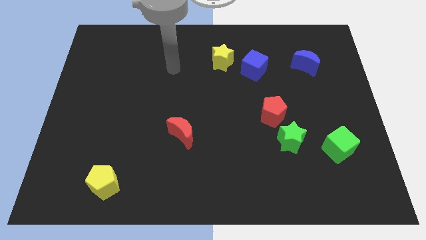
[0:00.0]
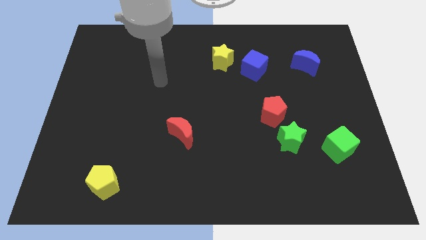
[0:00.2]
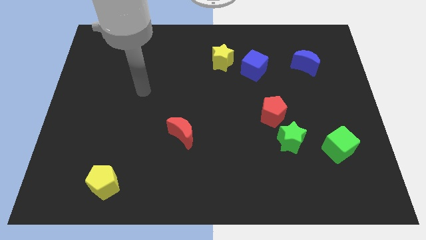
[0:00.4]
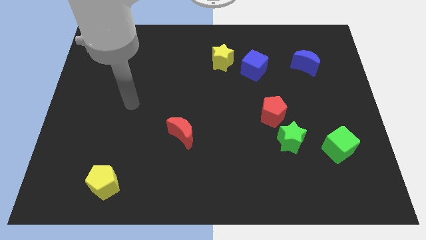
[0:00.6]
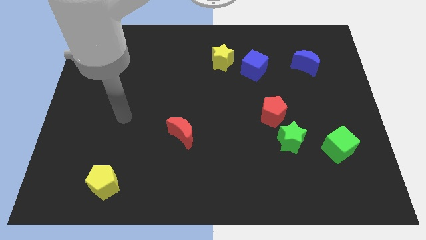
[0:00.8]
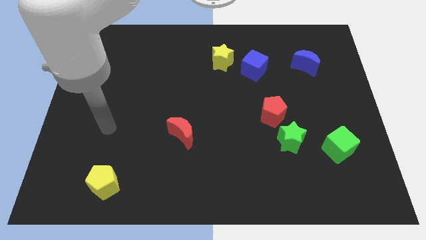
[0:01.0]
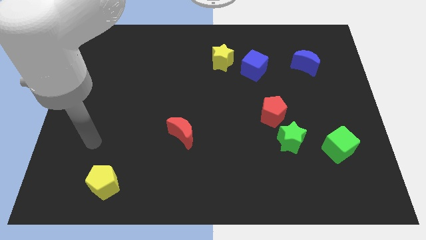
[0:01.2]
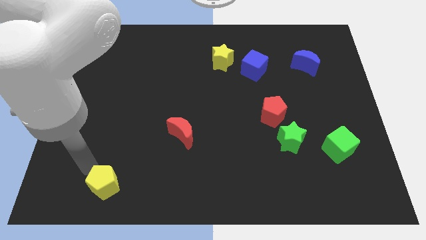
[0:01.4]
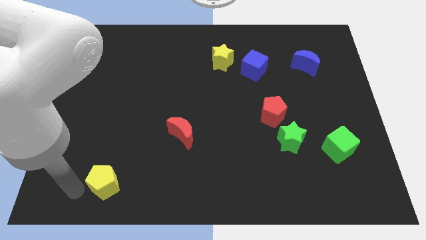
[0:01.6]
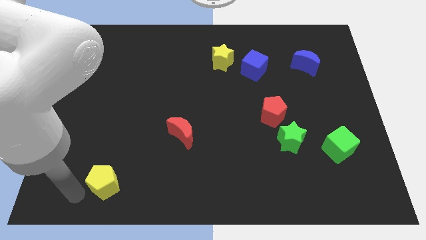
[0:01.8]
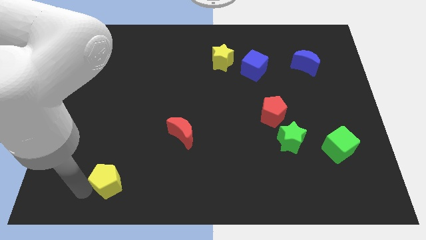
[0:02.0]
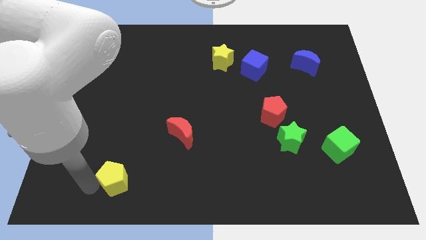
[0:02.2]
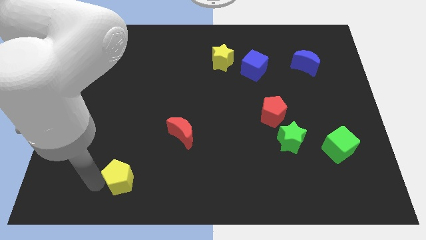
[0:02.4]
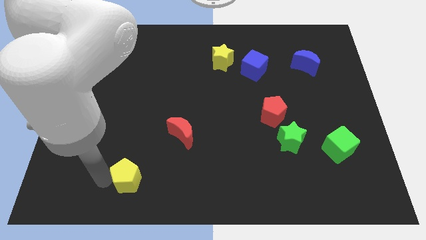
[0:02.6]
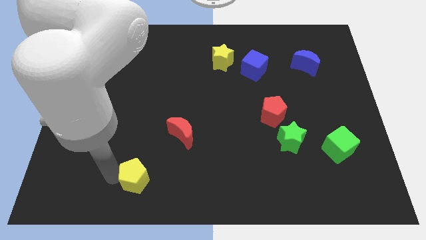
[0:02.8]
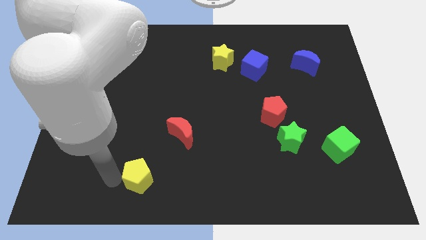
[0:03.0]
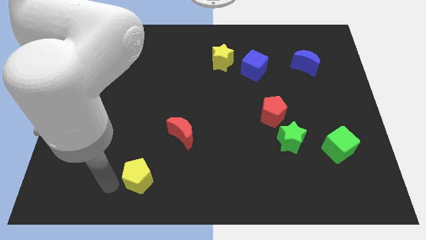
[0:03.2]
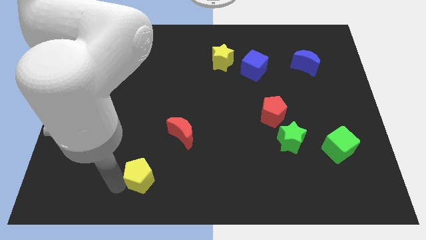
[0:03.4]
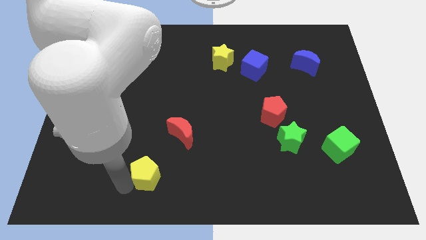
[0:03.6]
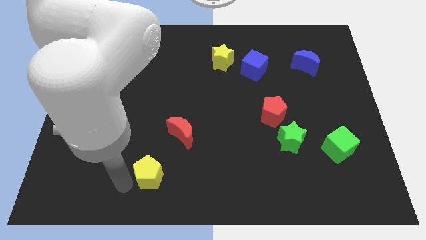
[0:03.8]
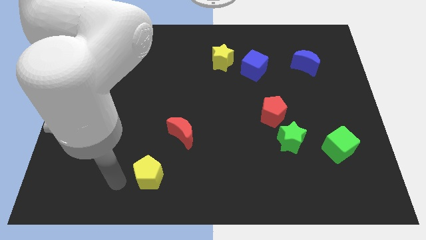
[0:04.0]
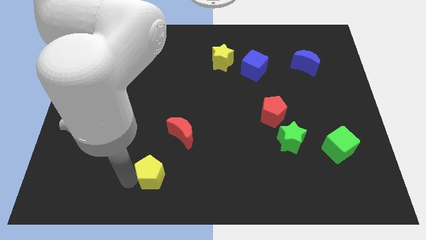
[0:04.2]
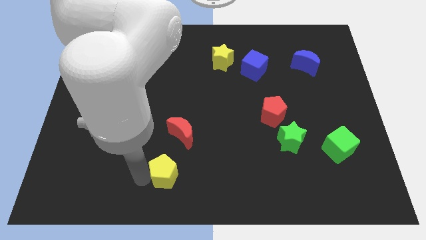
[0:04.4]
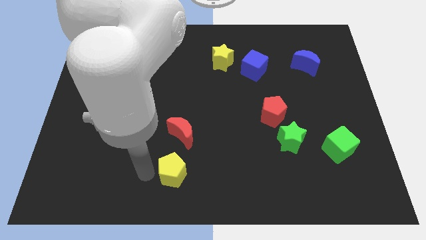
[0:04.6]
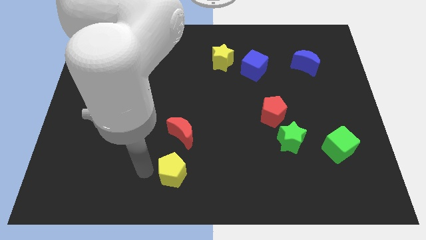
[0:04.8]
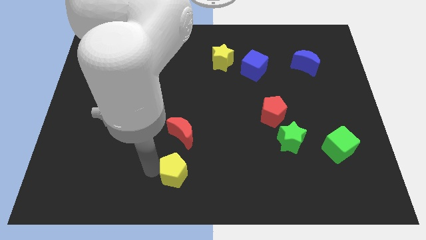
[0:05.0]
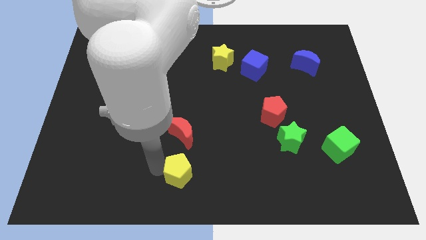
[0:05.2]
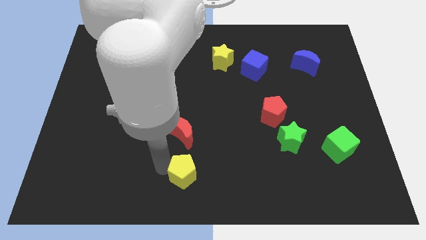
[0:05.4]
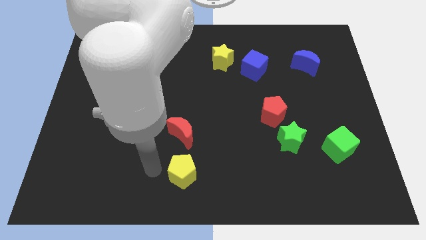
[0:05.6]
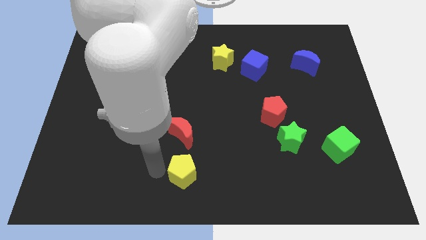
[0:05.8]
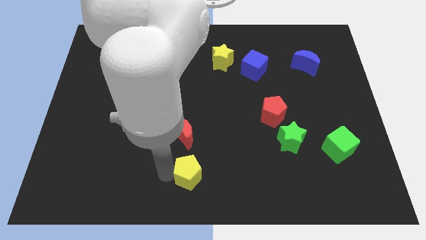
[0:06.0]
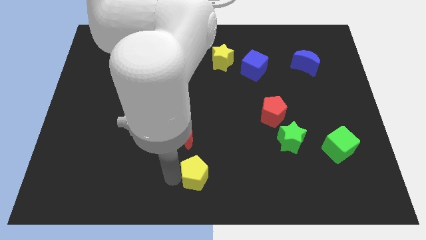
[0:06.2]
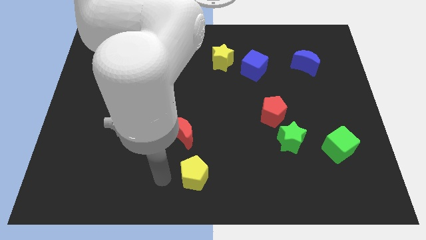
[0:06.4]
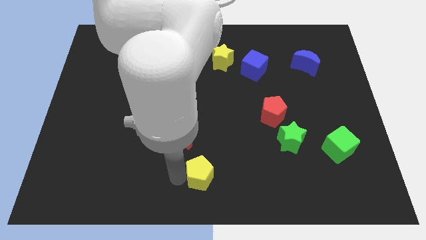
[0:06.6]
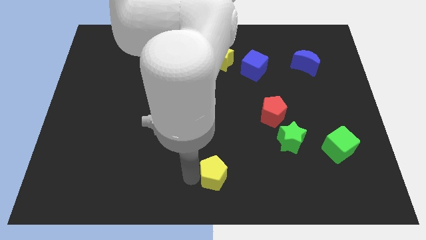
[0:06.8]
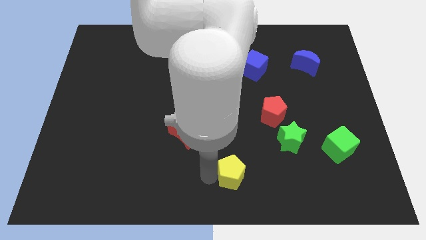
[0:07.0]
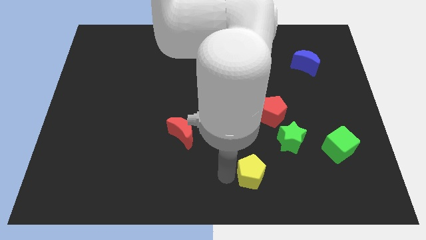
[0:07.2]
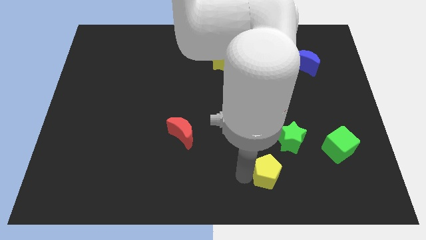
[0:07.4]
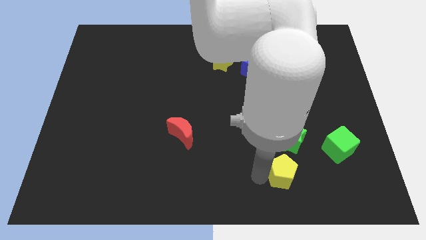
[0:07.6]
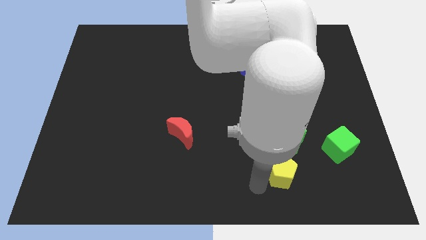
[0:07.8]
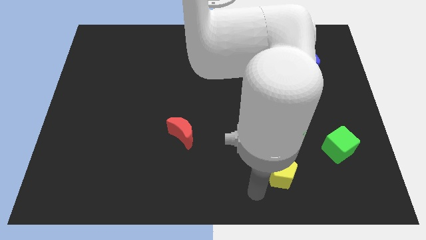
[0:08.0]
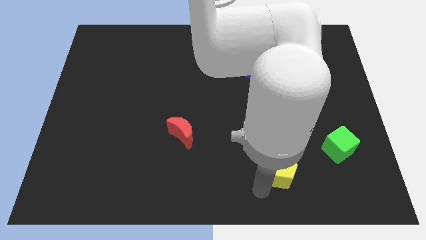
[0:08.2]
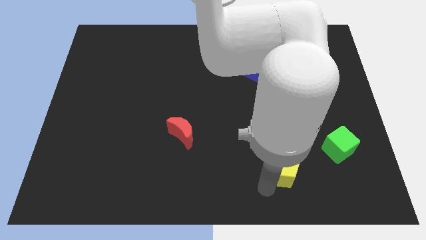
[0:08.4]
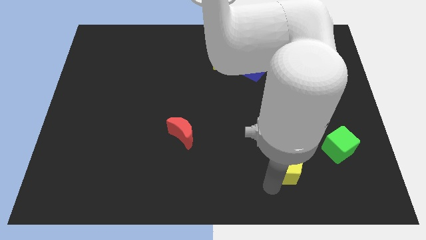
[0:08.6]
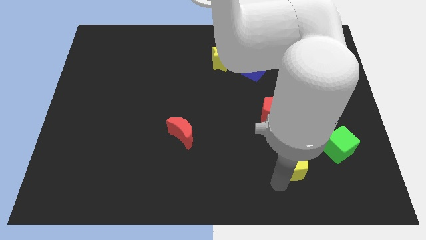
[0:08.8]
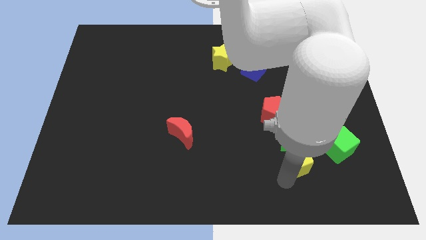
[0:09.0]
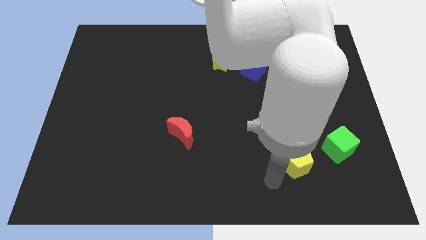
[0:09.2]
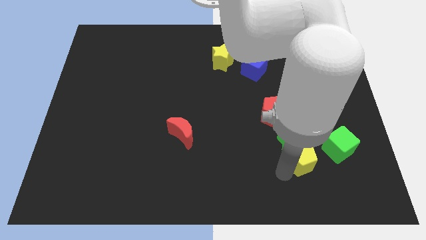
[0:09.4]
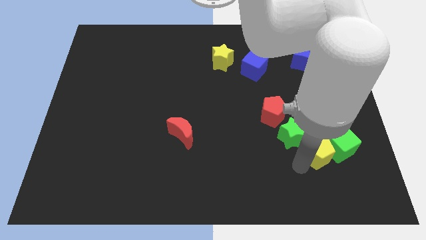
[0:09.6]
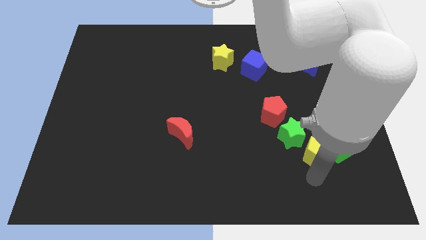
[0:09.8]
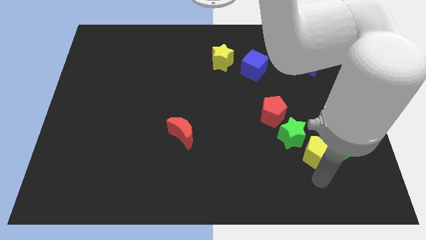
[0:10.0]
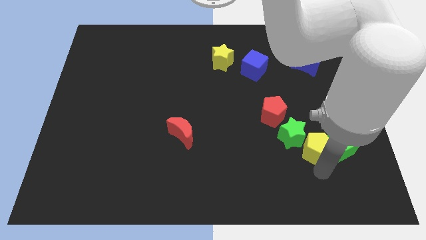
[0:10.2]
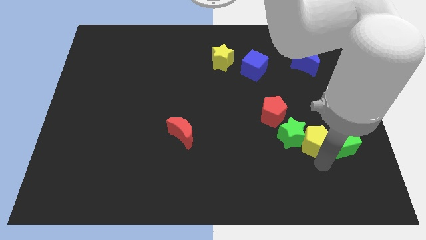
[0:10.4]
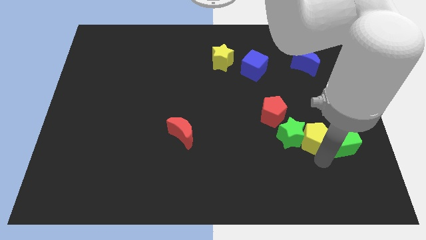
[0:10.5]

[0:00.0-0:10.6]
put the yellow pentagon to the top right of the green star

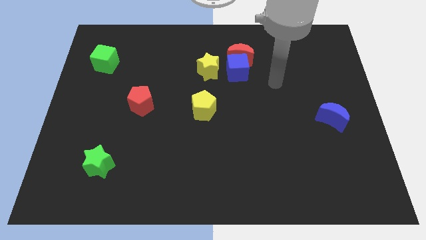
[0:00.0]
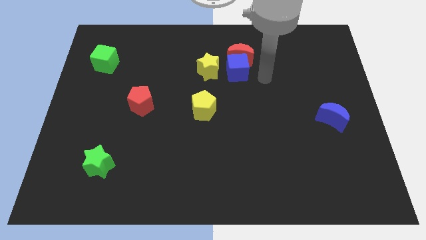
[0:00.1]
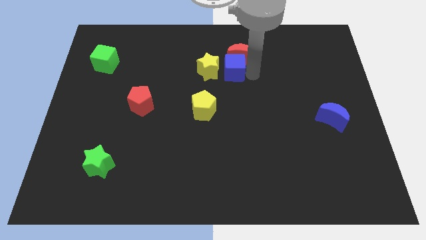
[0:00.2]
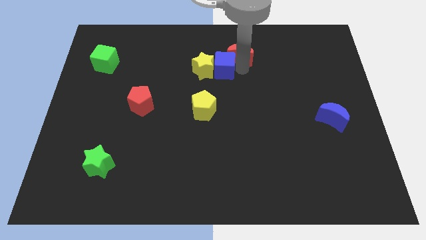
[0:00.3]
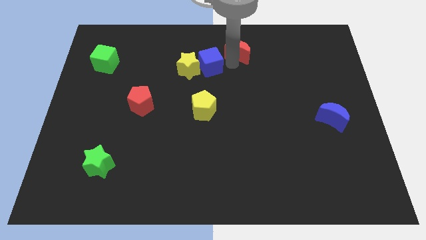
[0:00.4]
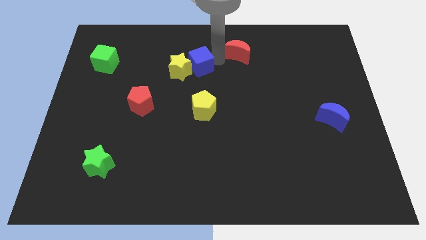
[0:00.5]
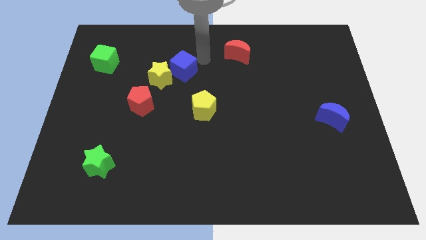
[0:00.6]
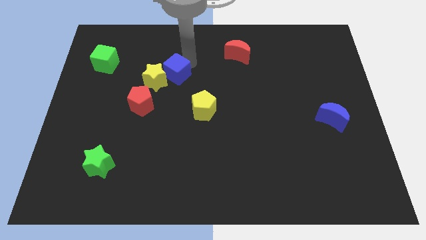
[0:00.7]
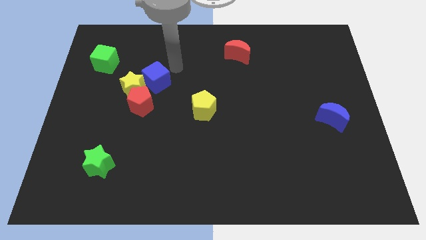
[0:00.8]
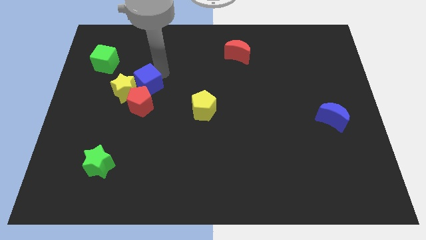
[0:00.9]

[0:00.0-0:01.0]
push the yellow star just left of the red pentagon
